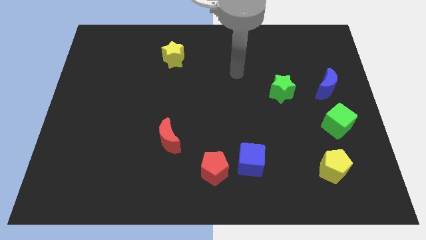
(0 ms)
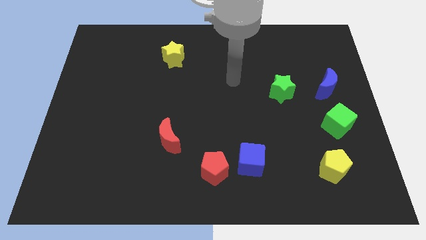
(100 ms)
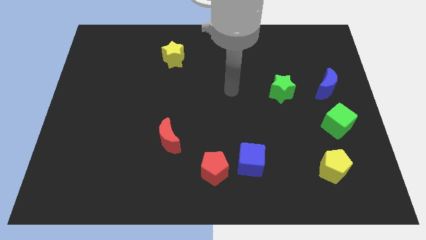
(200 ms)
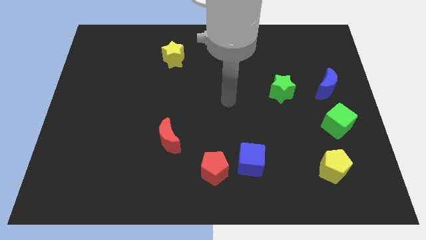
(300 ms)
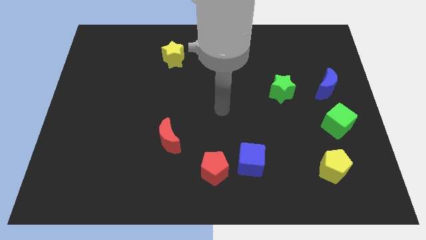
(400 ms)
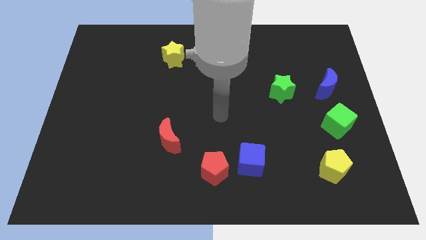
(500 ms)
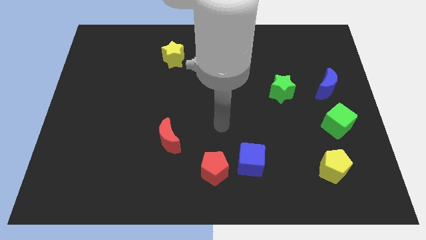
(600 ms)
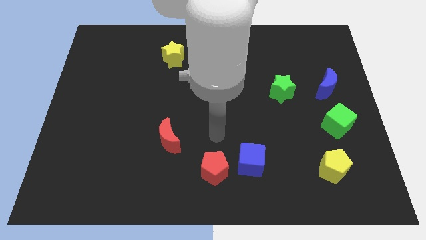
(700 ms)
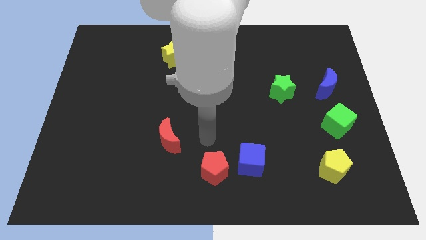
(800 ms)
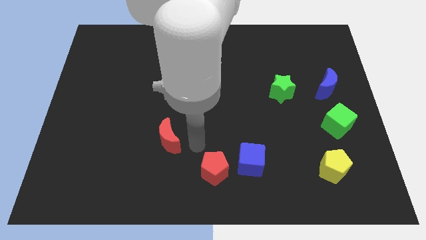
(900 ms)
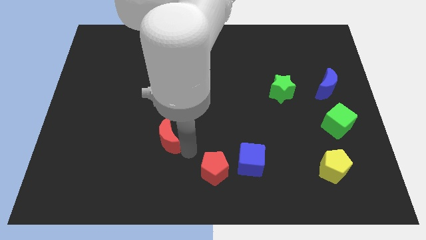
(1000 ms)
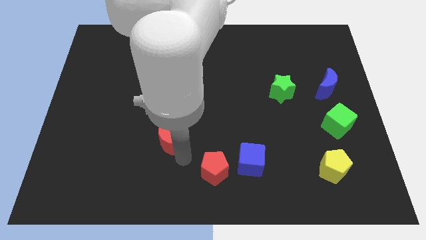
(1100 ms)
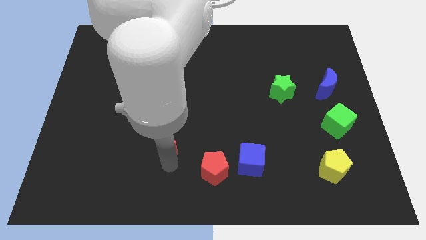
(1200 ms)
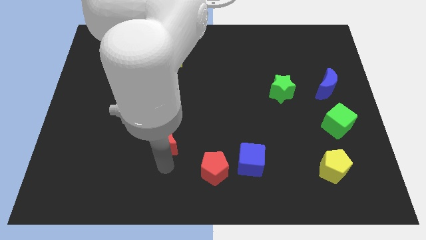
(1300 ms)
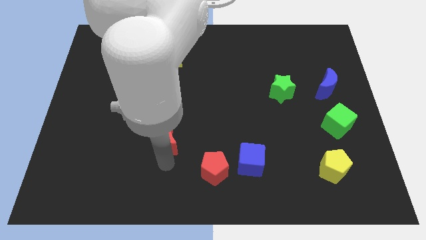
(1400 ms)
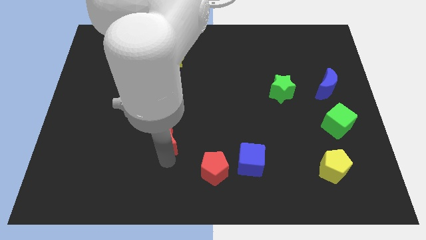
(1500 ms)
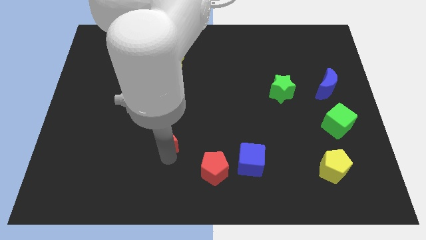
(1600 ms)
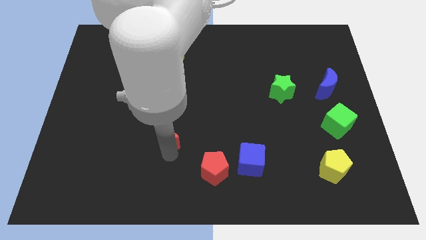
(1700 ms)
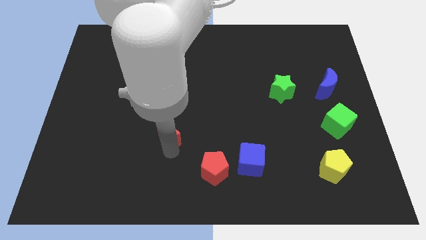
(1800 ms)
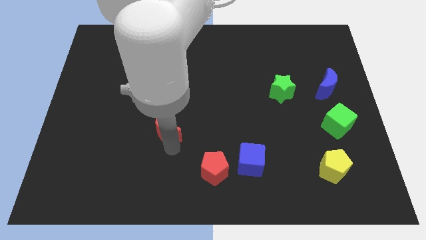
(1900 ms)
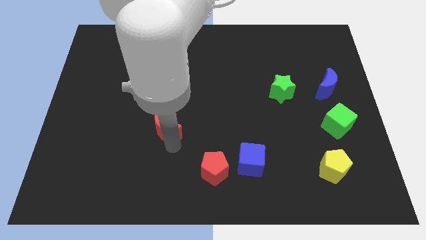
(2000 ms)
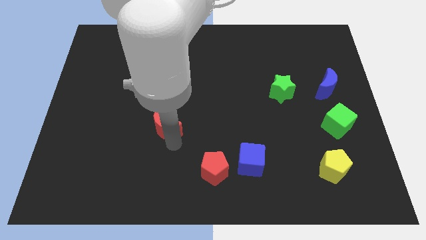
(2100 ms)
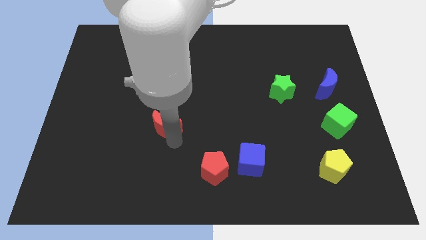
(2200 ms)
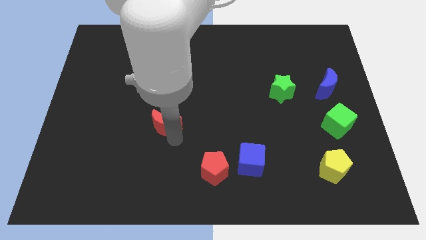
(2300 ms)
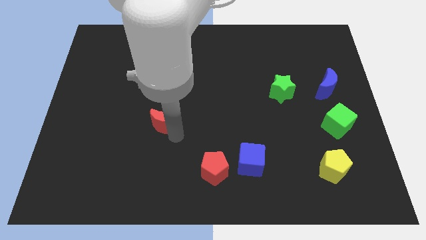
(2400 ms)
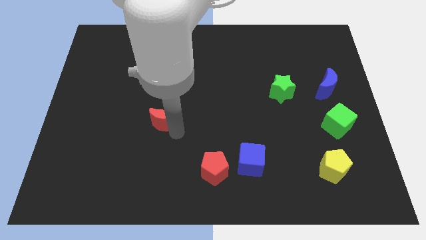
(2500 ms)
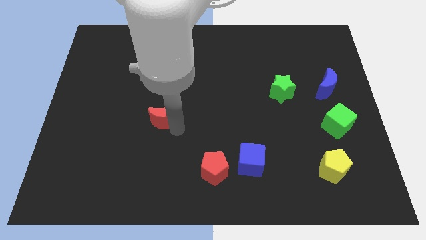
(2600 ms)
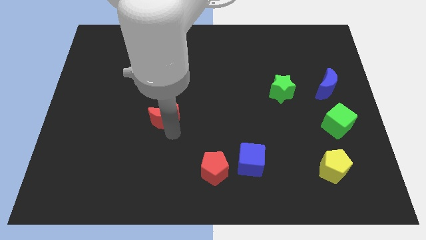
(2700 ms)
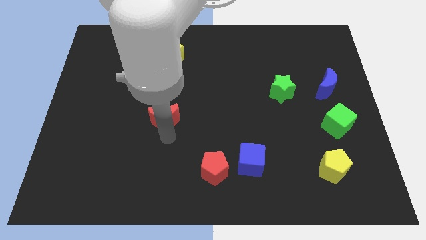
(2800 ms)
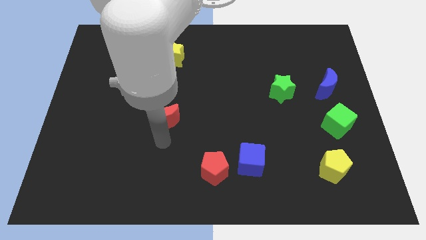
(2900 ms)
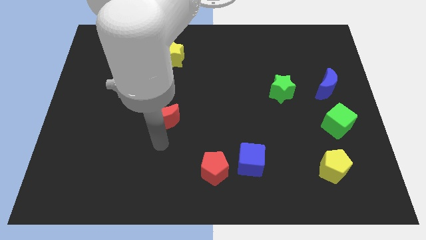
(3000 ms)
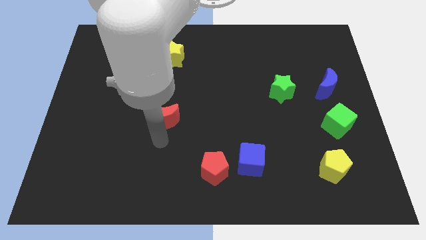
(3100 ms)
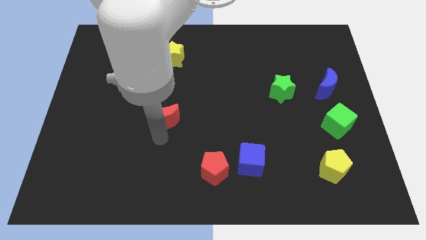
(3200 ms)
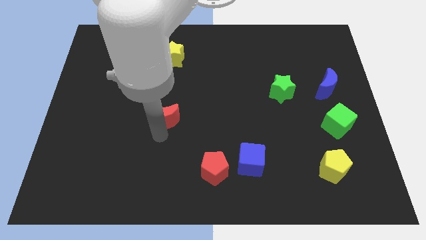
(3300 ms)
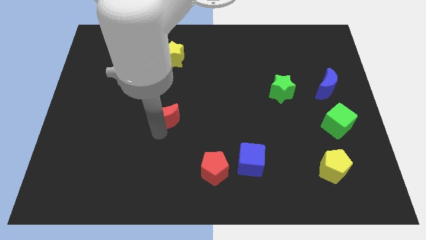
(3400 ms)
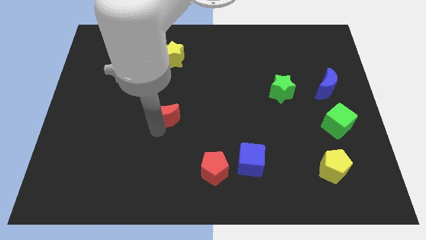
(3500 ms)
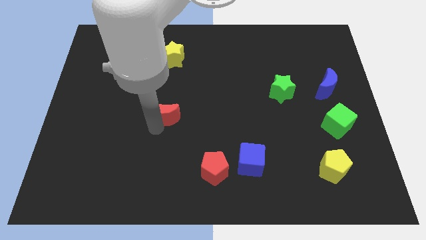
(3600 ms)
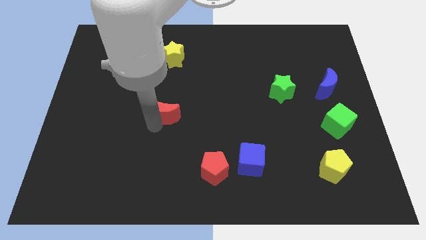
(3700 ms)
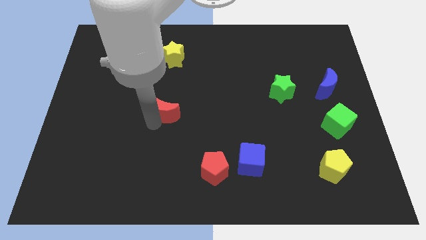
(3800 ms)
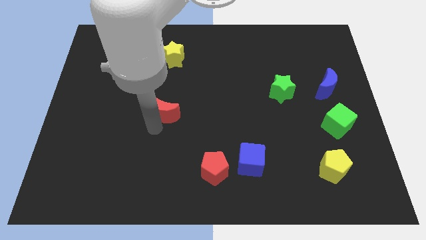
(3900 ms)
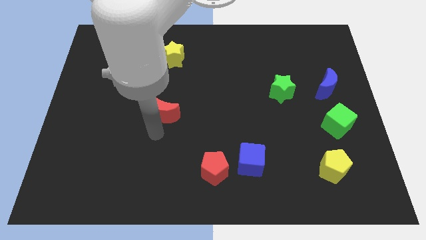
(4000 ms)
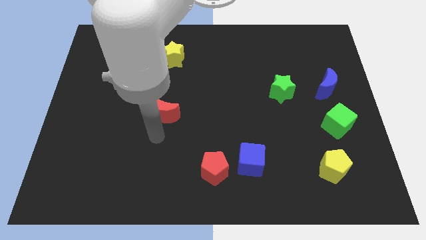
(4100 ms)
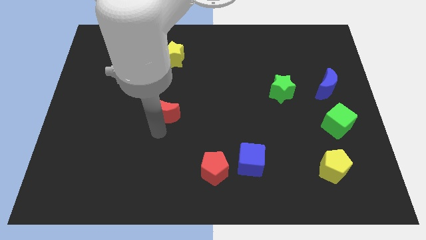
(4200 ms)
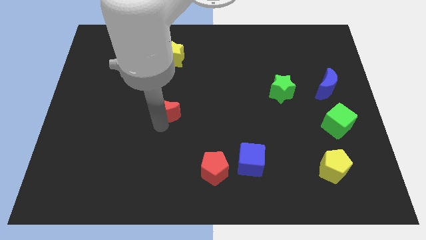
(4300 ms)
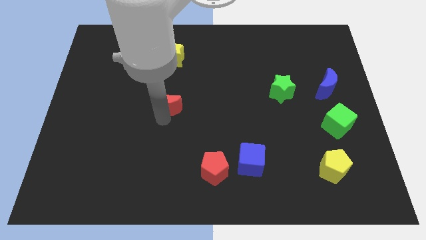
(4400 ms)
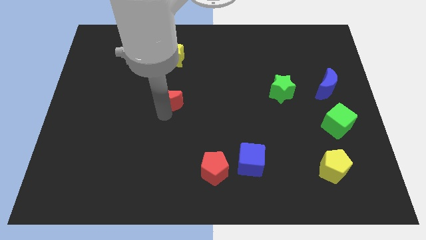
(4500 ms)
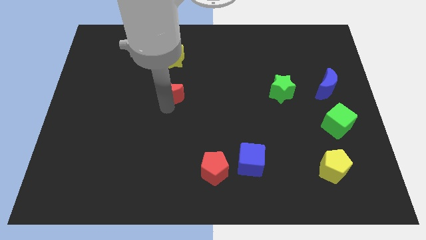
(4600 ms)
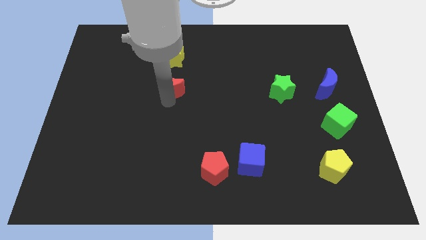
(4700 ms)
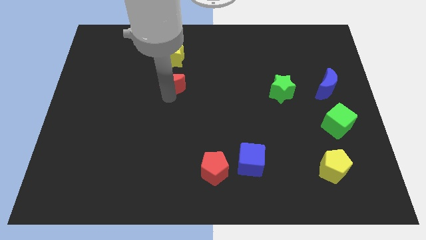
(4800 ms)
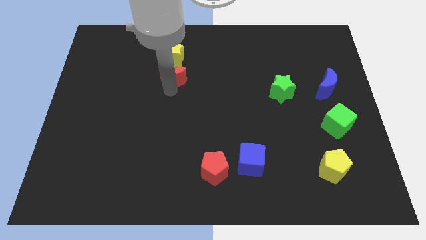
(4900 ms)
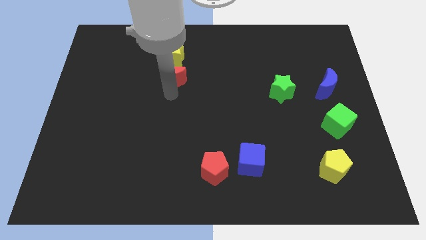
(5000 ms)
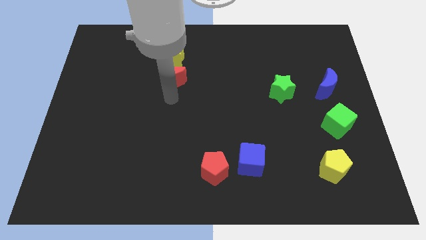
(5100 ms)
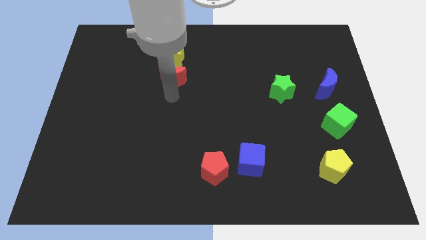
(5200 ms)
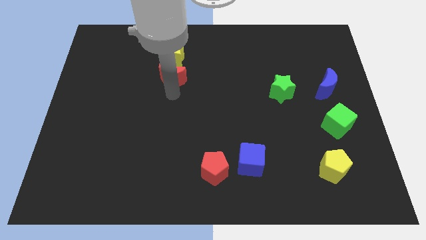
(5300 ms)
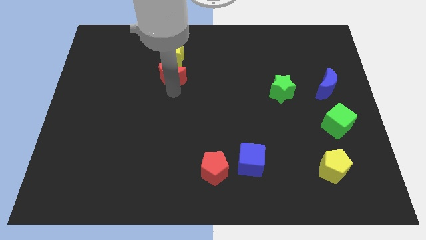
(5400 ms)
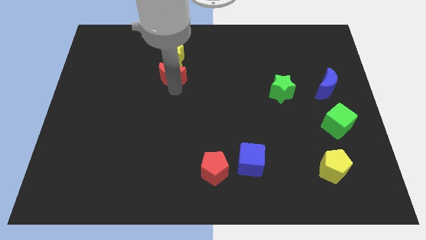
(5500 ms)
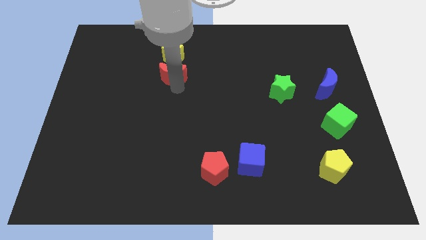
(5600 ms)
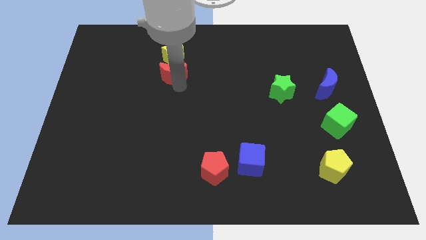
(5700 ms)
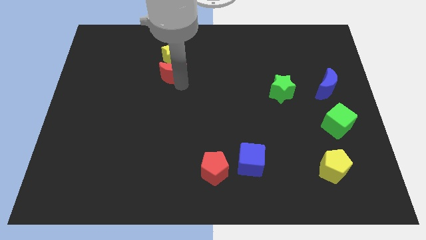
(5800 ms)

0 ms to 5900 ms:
move the red moon towards the yellow star

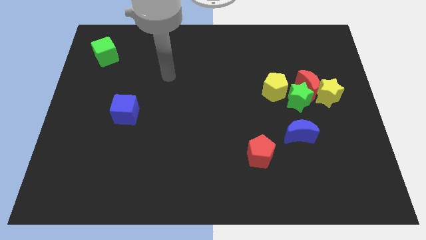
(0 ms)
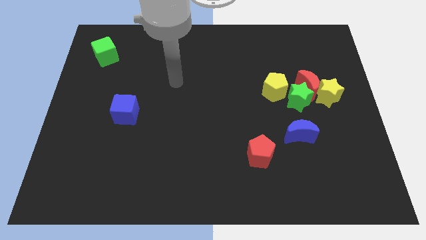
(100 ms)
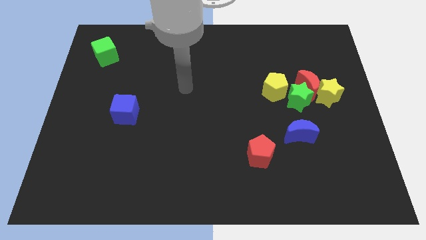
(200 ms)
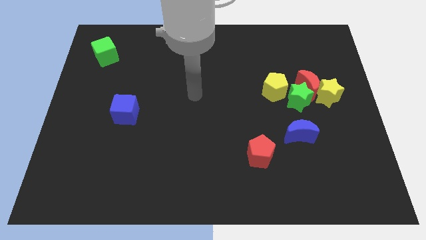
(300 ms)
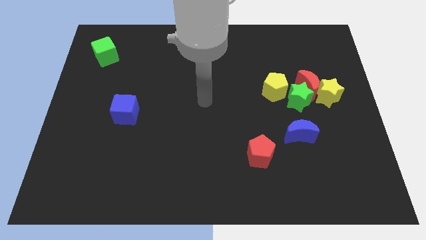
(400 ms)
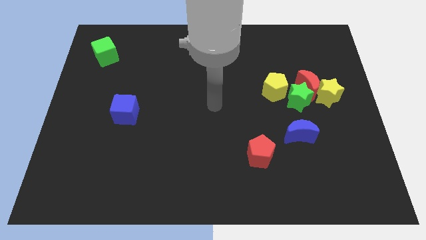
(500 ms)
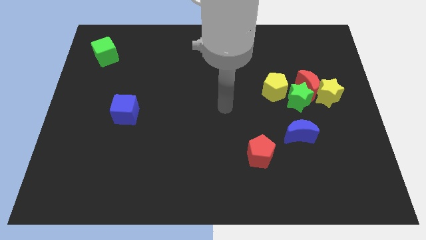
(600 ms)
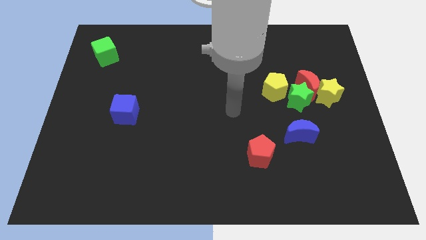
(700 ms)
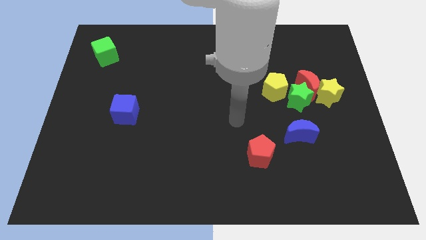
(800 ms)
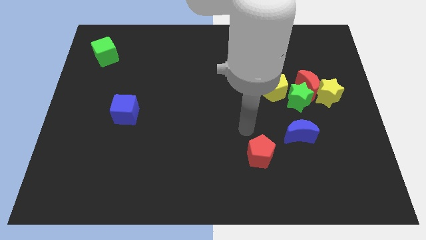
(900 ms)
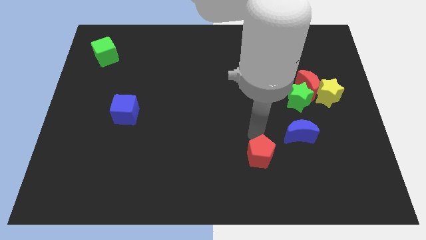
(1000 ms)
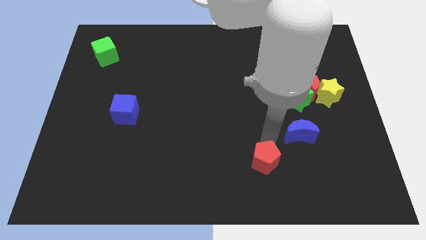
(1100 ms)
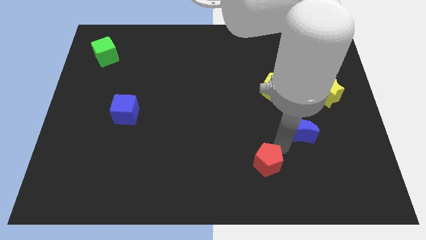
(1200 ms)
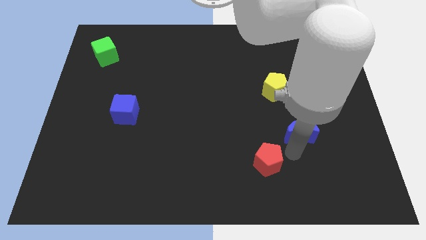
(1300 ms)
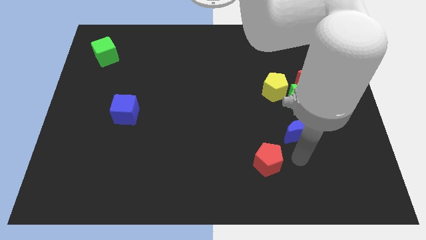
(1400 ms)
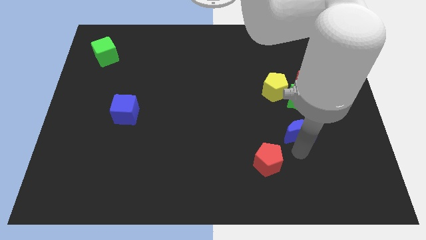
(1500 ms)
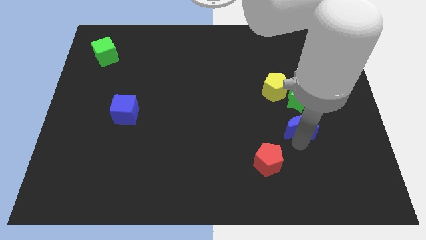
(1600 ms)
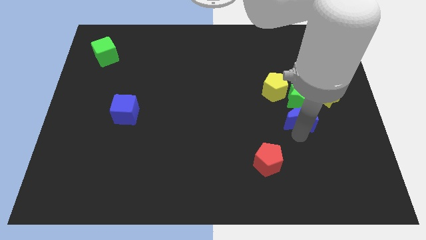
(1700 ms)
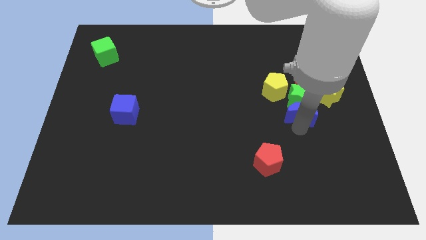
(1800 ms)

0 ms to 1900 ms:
put the blue moon close to the green star
